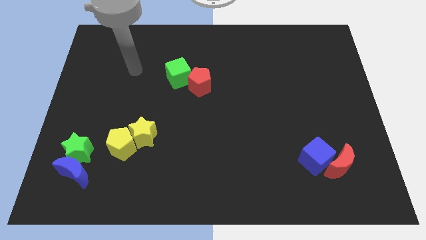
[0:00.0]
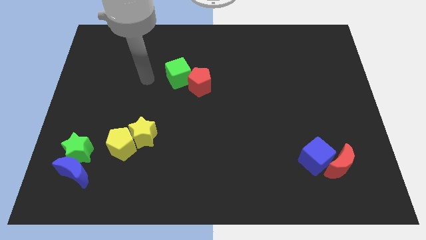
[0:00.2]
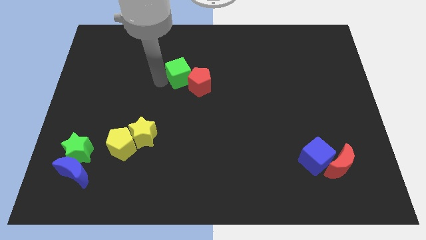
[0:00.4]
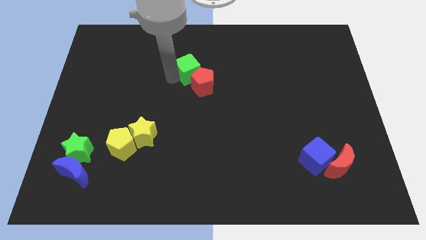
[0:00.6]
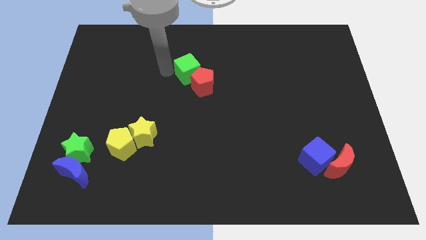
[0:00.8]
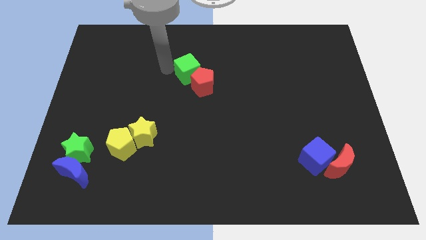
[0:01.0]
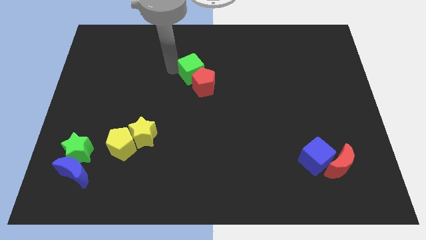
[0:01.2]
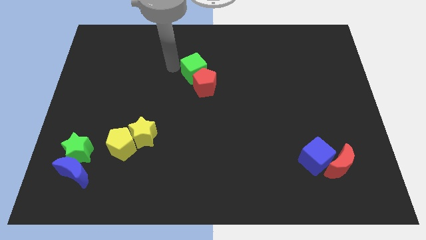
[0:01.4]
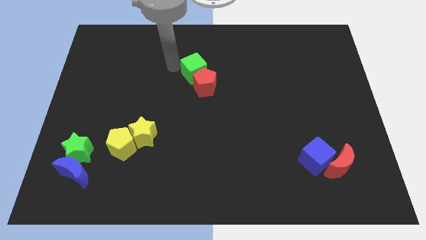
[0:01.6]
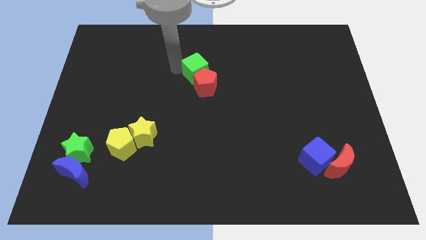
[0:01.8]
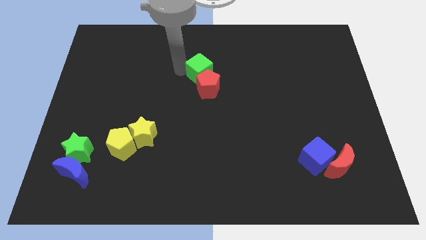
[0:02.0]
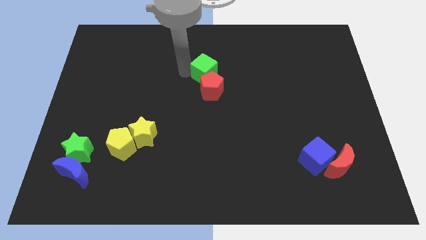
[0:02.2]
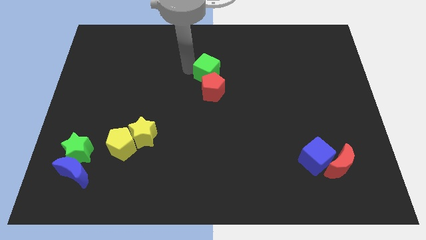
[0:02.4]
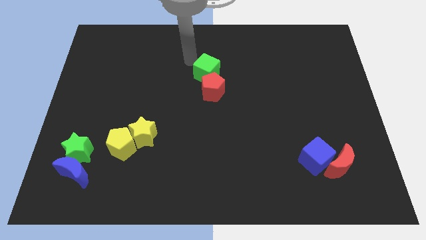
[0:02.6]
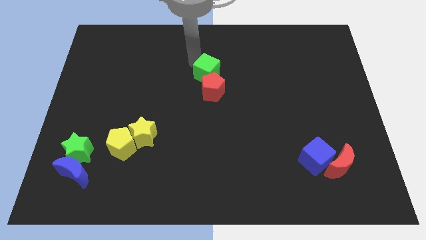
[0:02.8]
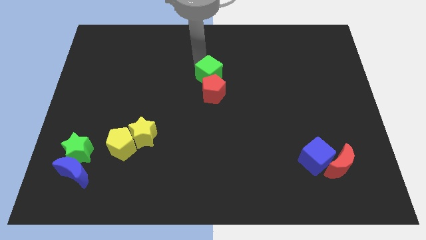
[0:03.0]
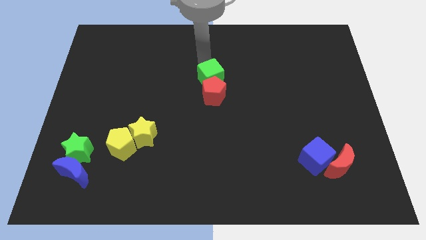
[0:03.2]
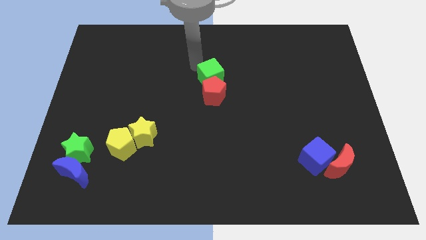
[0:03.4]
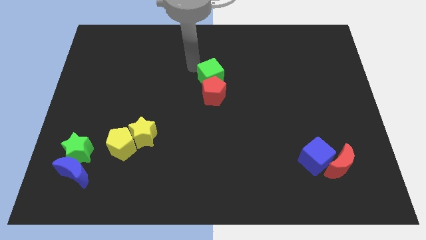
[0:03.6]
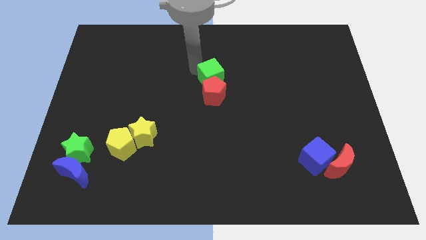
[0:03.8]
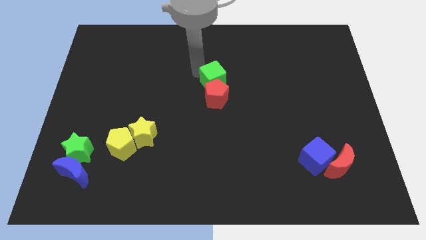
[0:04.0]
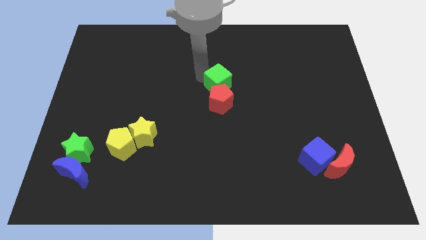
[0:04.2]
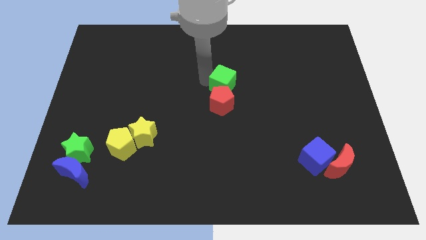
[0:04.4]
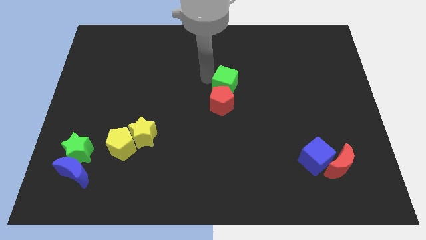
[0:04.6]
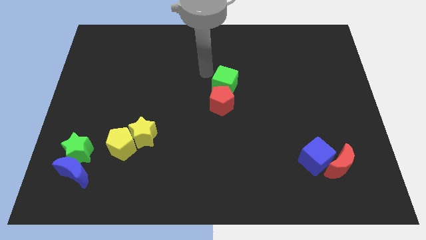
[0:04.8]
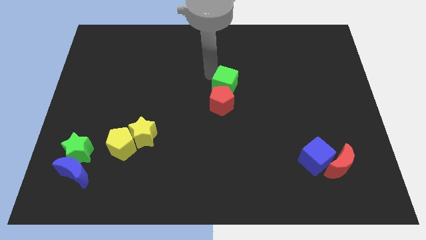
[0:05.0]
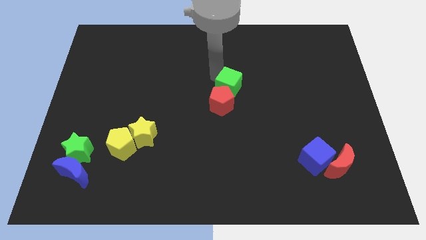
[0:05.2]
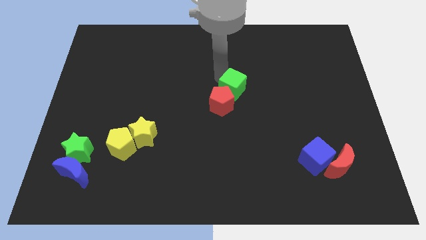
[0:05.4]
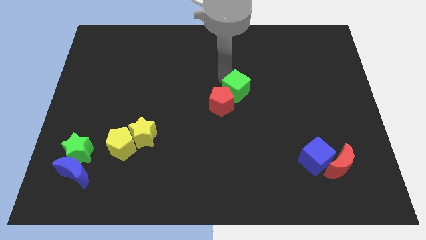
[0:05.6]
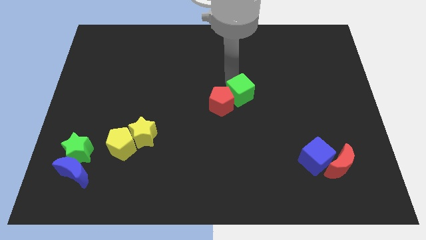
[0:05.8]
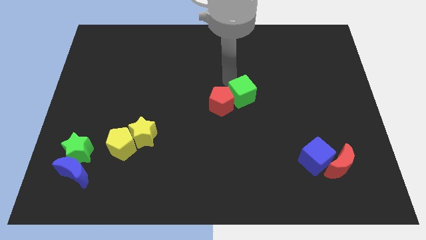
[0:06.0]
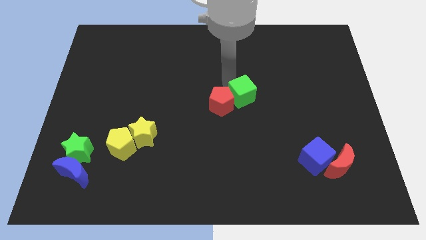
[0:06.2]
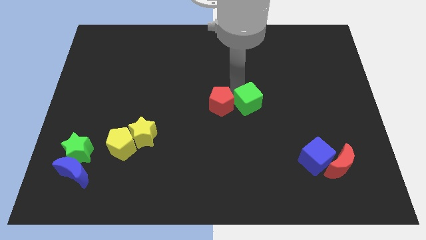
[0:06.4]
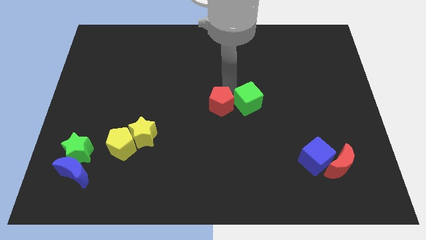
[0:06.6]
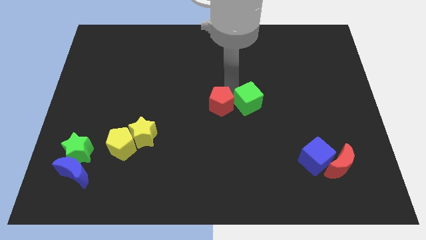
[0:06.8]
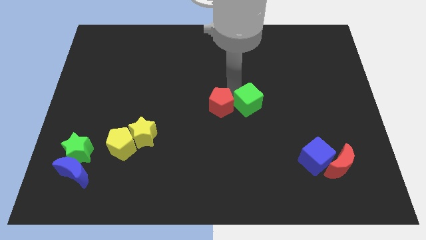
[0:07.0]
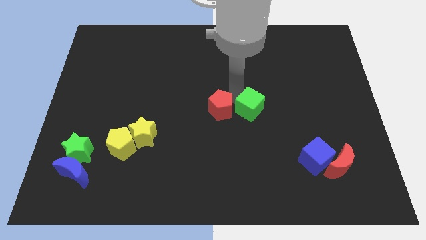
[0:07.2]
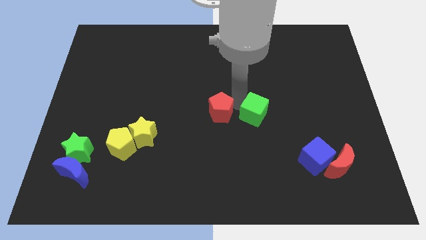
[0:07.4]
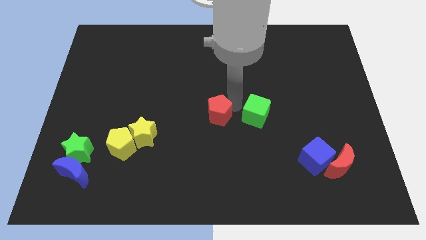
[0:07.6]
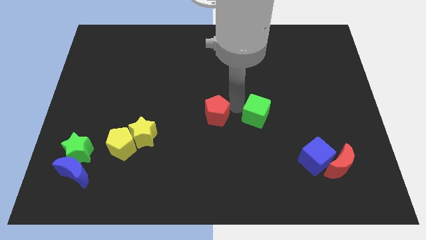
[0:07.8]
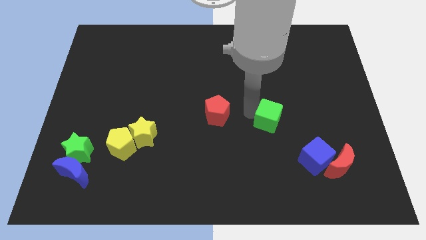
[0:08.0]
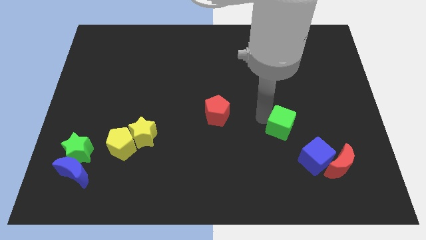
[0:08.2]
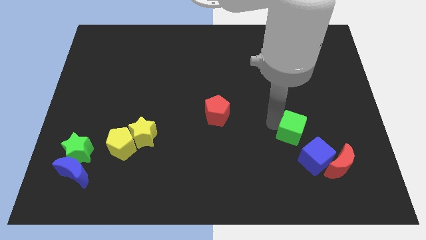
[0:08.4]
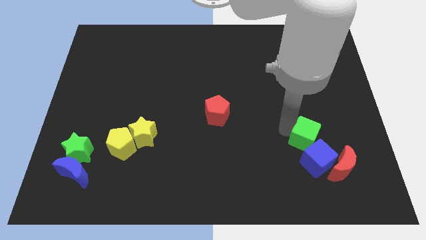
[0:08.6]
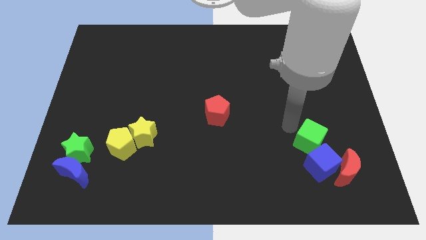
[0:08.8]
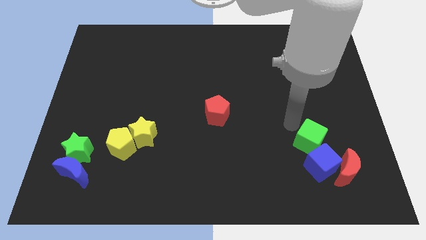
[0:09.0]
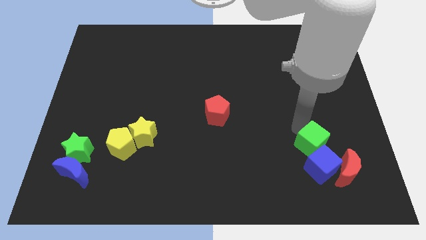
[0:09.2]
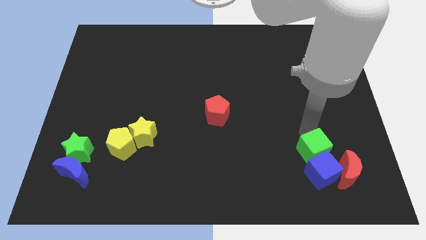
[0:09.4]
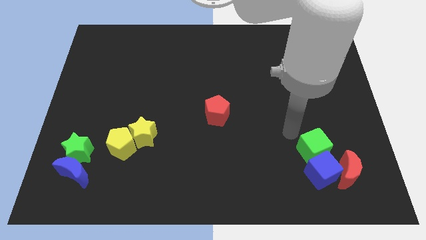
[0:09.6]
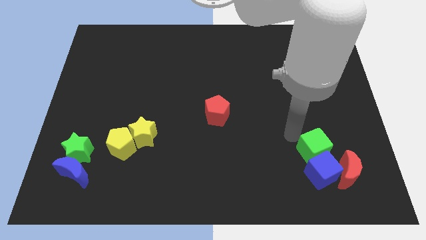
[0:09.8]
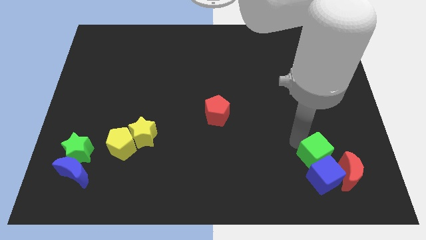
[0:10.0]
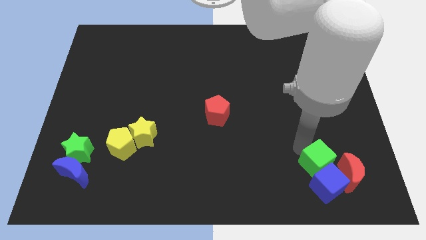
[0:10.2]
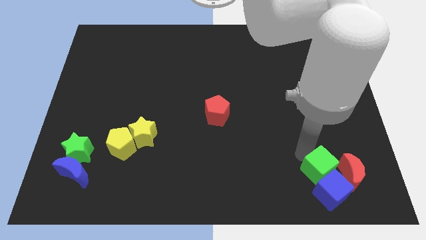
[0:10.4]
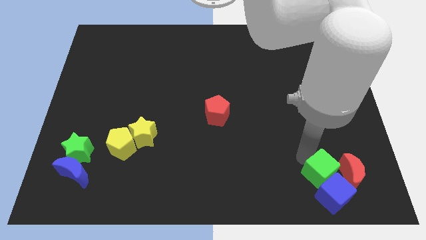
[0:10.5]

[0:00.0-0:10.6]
move the green cube to the red moon

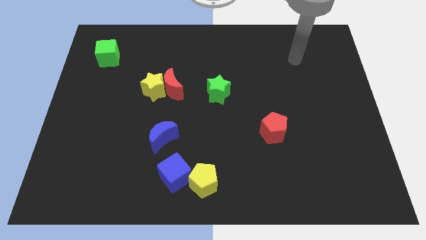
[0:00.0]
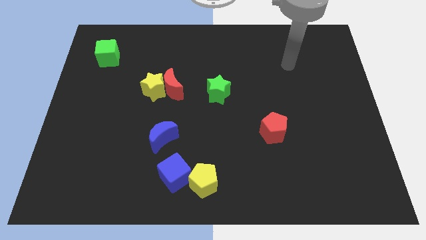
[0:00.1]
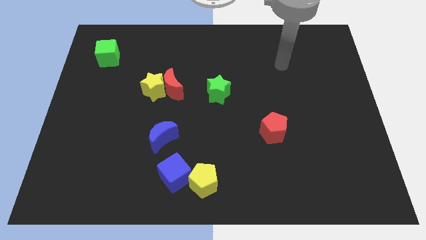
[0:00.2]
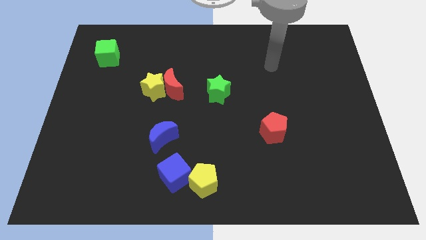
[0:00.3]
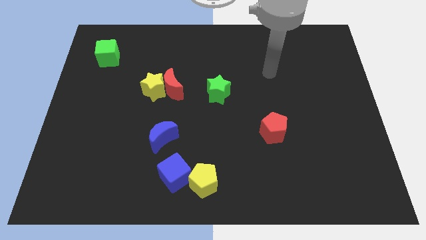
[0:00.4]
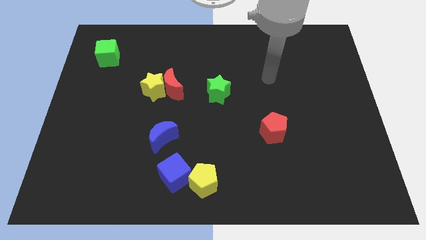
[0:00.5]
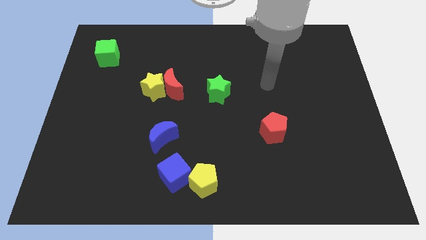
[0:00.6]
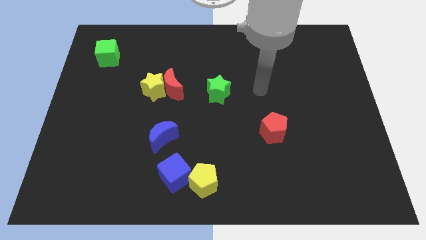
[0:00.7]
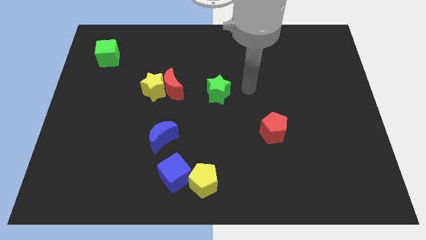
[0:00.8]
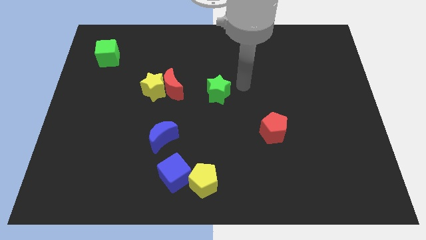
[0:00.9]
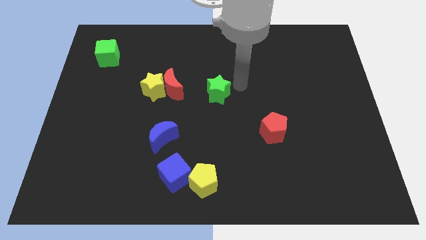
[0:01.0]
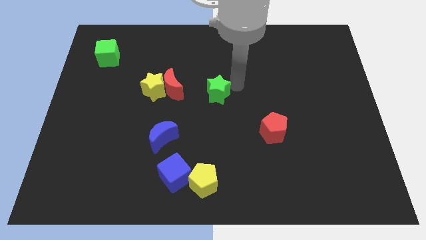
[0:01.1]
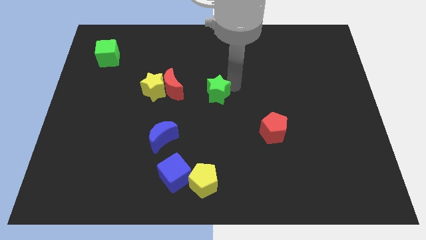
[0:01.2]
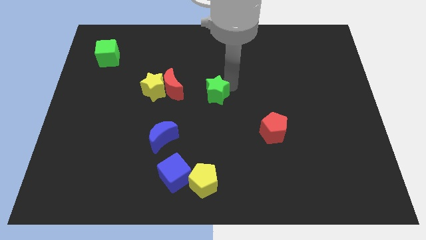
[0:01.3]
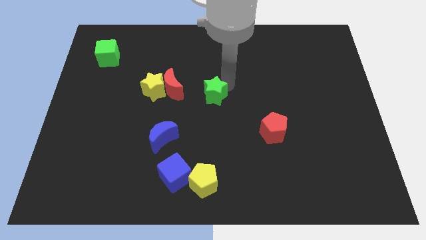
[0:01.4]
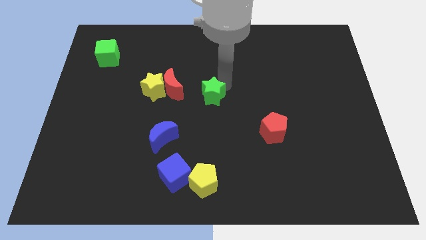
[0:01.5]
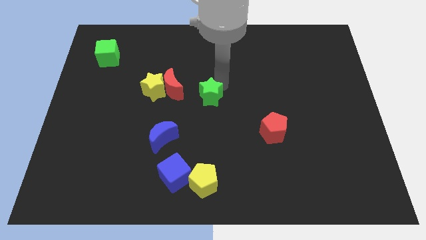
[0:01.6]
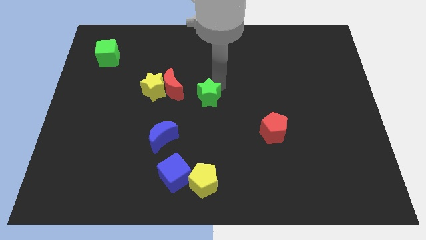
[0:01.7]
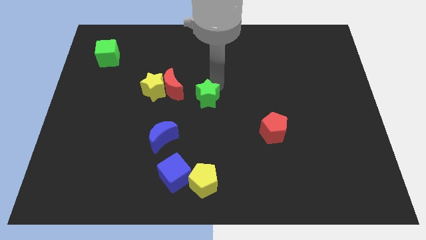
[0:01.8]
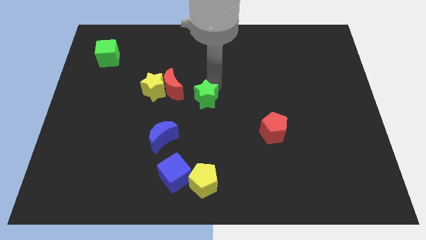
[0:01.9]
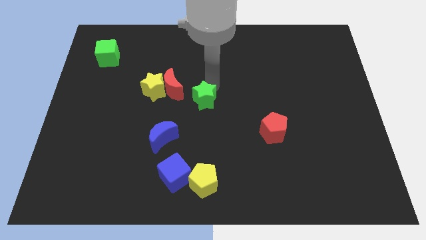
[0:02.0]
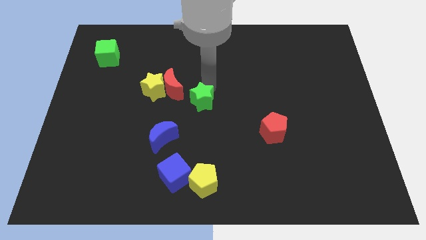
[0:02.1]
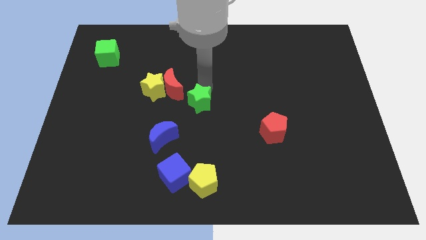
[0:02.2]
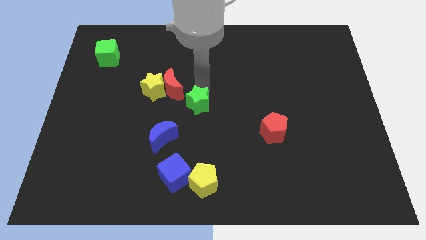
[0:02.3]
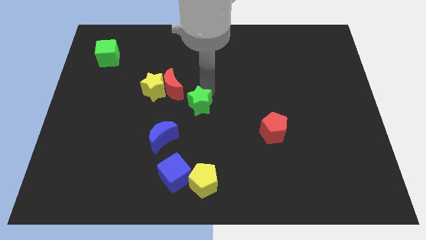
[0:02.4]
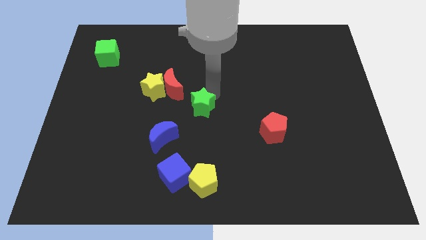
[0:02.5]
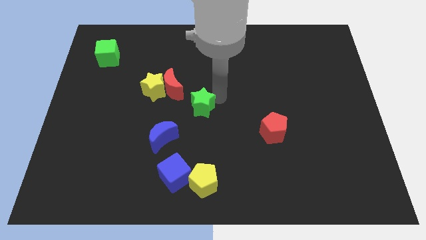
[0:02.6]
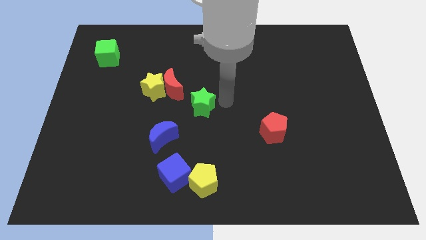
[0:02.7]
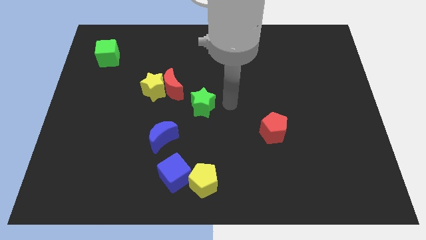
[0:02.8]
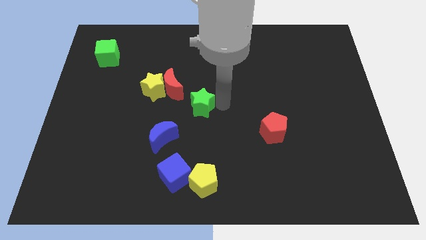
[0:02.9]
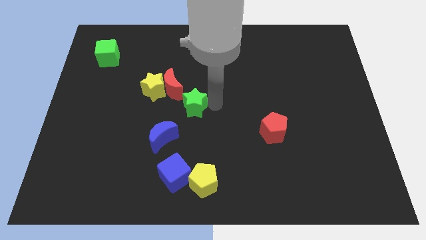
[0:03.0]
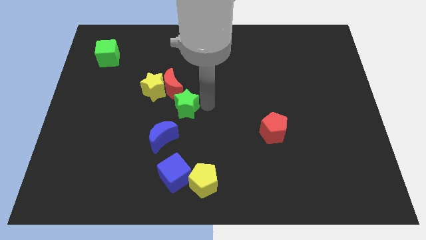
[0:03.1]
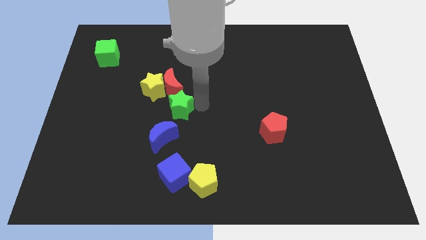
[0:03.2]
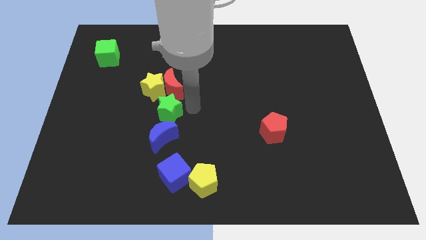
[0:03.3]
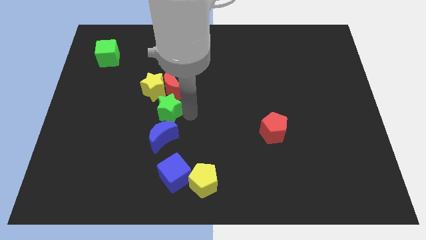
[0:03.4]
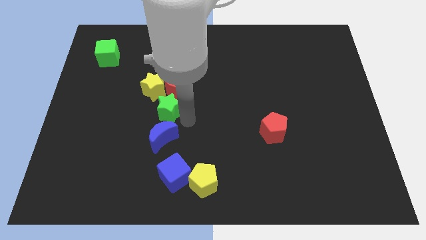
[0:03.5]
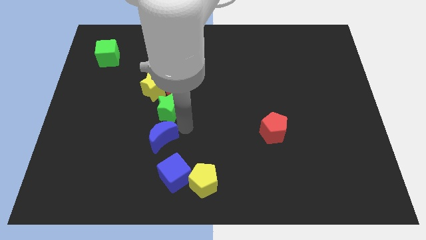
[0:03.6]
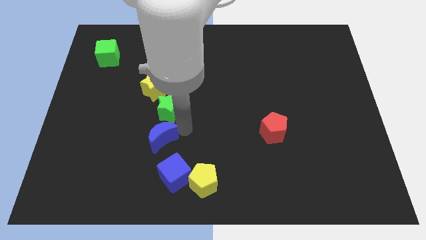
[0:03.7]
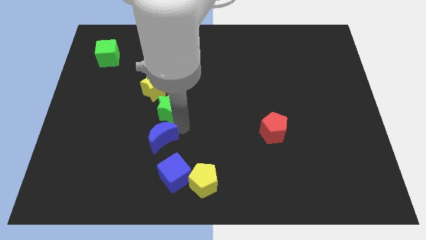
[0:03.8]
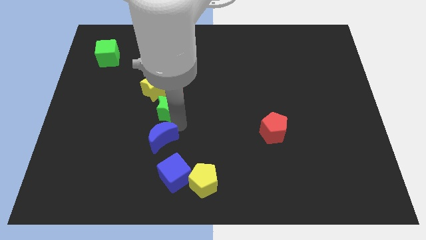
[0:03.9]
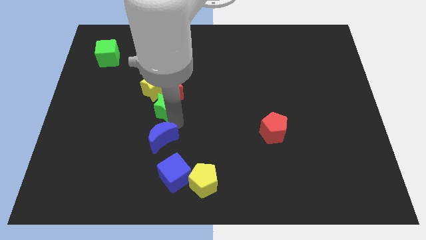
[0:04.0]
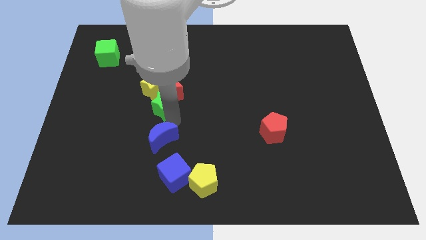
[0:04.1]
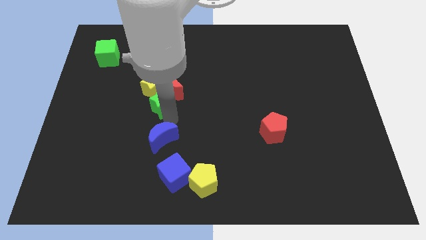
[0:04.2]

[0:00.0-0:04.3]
slide the green star close to the yellow star
